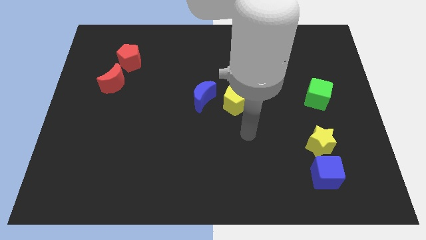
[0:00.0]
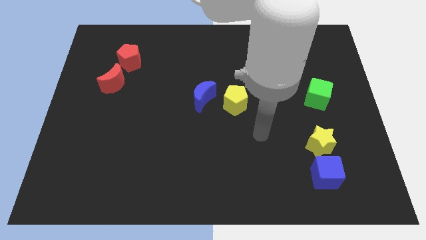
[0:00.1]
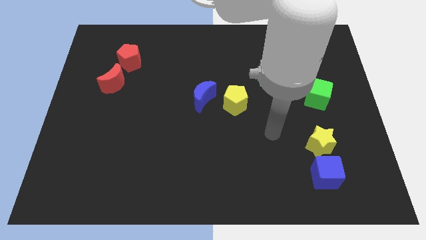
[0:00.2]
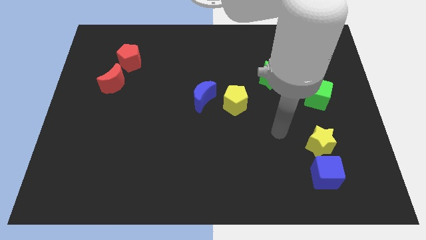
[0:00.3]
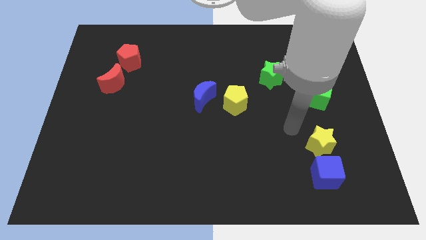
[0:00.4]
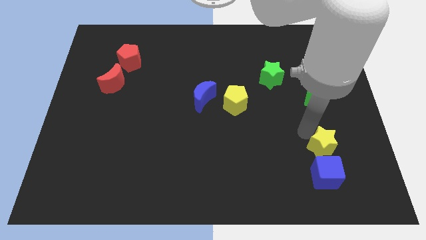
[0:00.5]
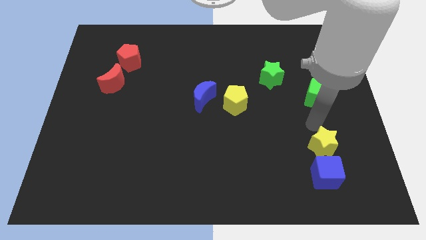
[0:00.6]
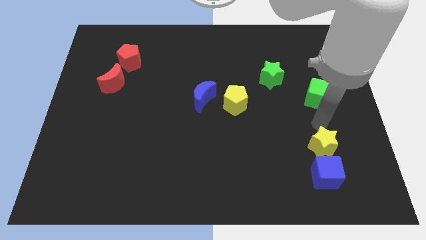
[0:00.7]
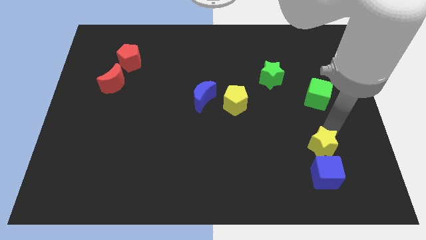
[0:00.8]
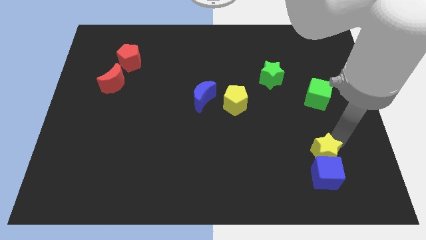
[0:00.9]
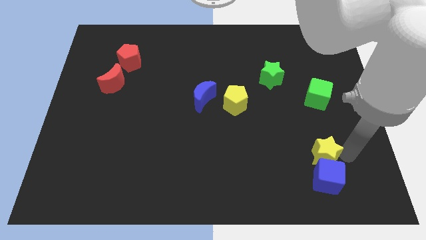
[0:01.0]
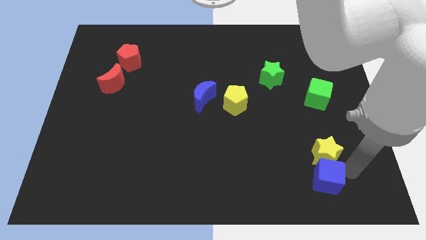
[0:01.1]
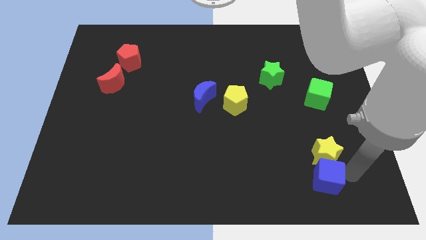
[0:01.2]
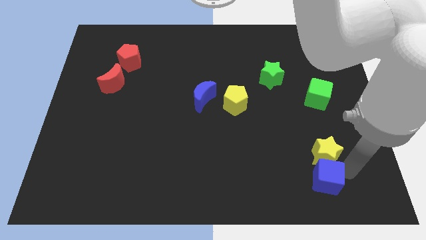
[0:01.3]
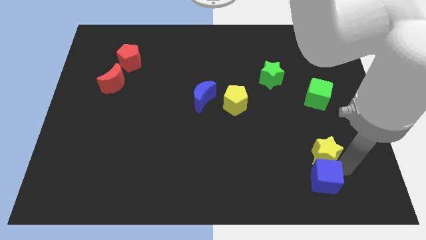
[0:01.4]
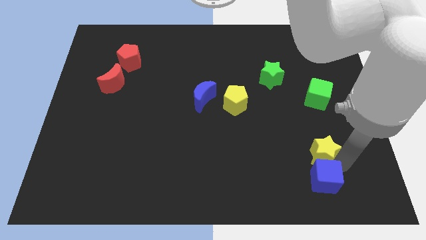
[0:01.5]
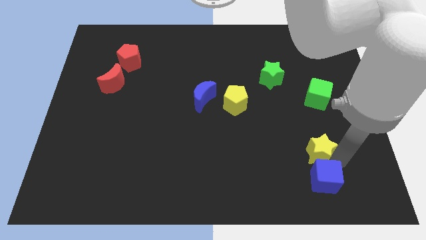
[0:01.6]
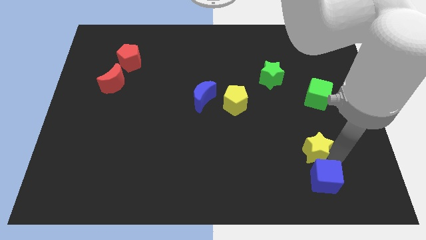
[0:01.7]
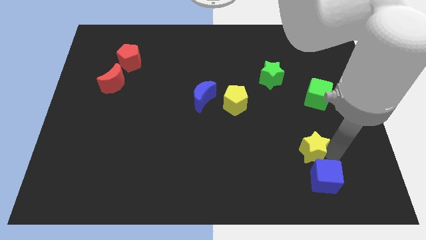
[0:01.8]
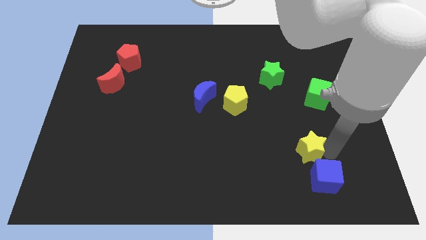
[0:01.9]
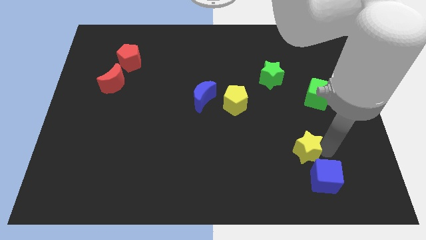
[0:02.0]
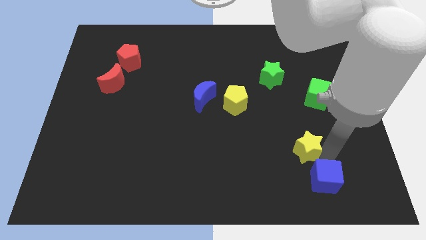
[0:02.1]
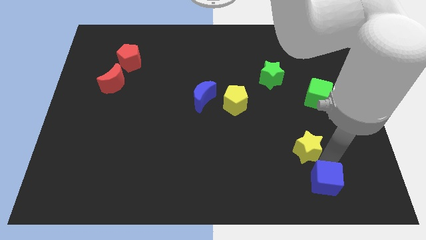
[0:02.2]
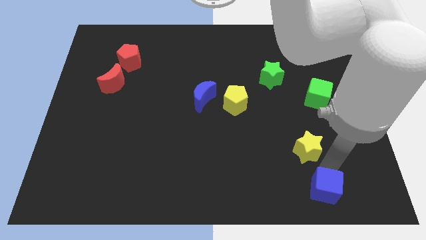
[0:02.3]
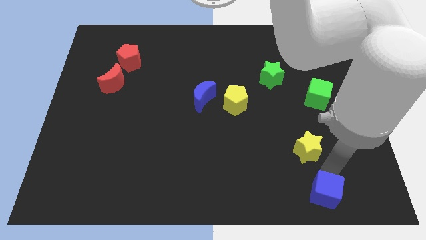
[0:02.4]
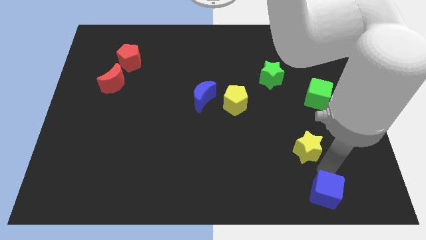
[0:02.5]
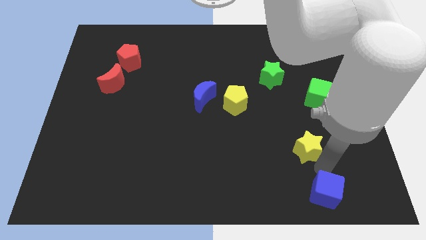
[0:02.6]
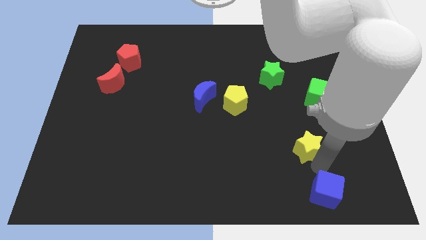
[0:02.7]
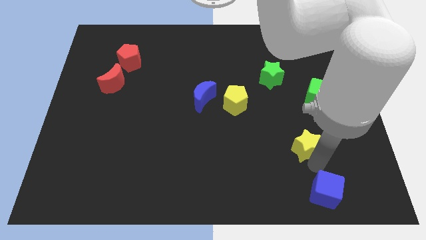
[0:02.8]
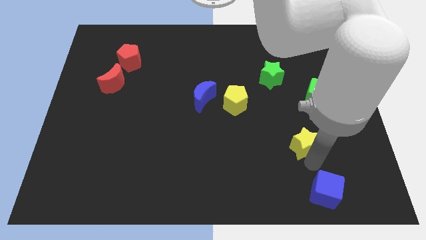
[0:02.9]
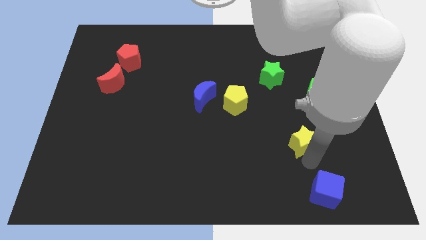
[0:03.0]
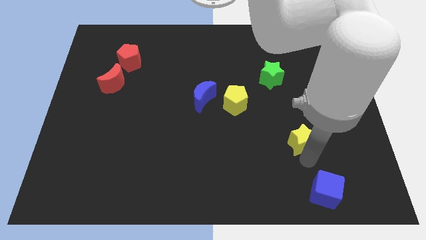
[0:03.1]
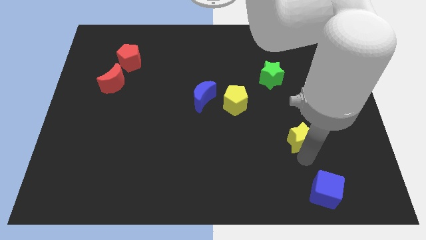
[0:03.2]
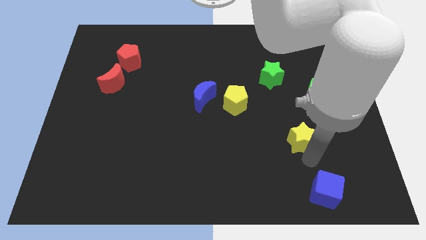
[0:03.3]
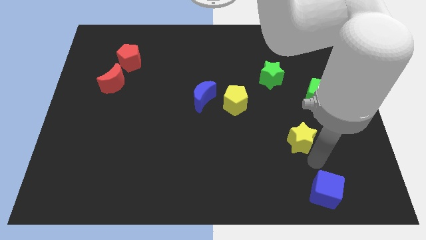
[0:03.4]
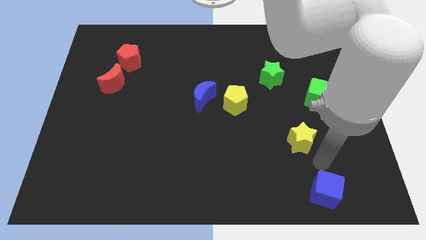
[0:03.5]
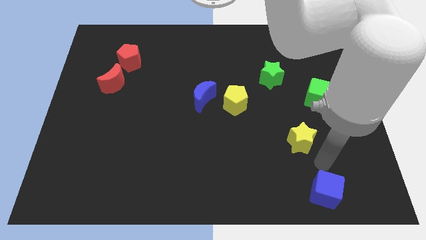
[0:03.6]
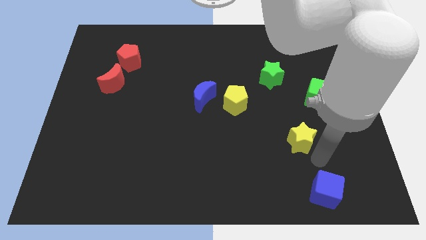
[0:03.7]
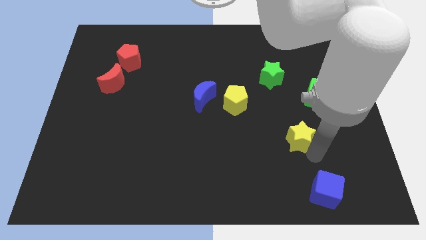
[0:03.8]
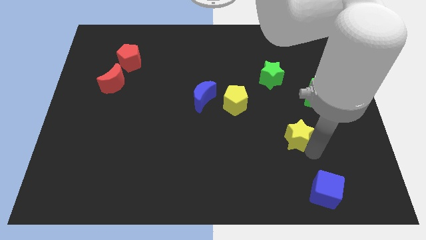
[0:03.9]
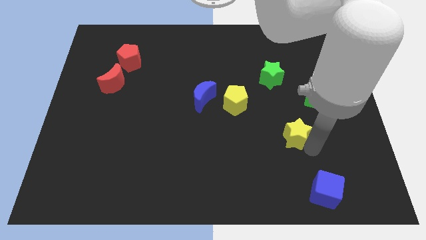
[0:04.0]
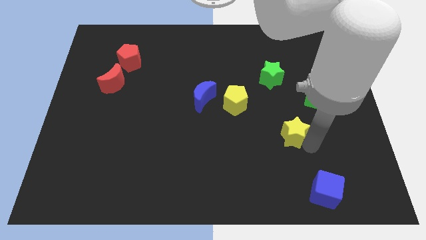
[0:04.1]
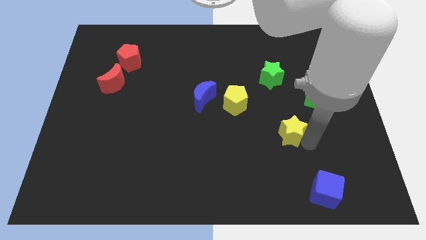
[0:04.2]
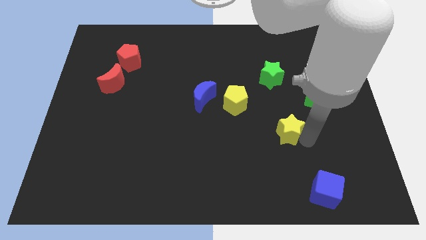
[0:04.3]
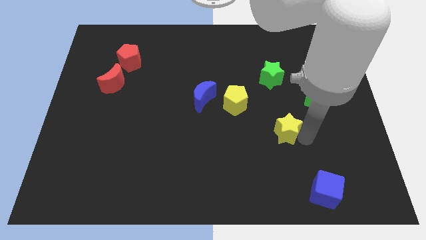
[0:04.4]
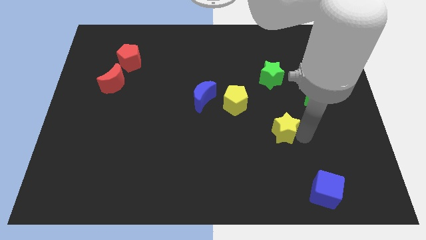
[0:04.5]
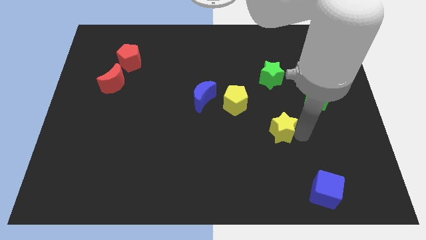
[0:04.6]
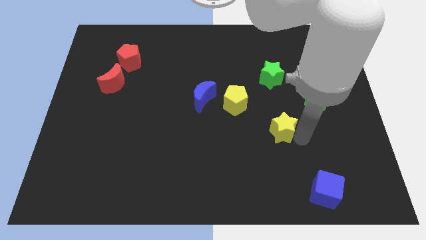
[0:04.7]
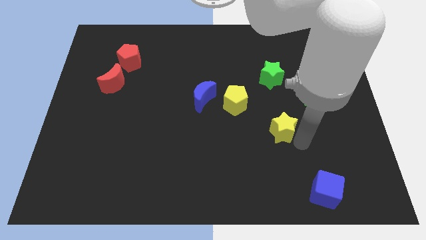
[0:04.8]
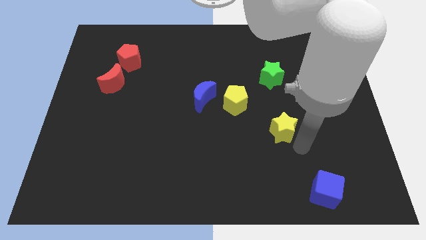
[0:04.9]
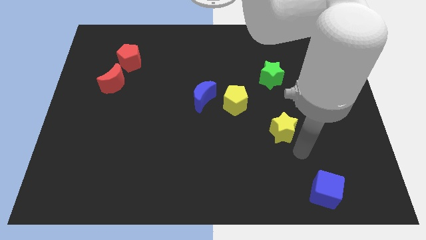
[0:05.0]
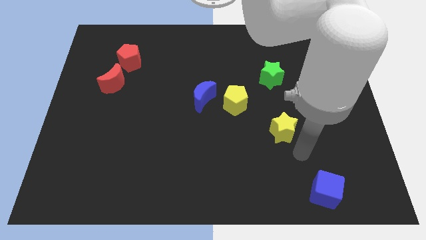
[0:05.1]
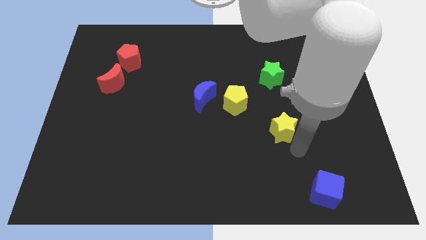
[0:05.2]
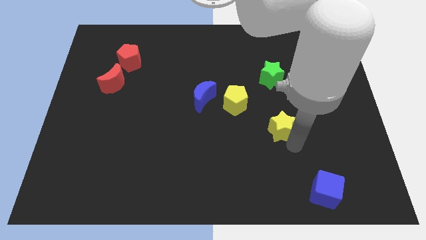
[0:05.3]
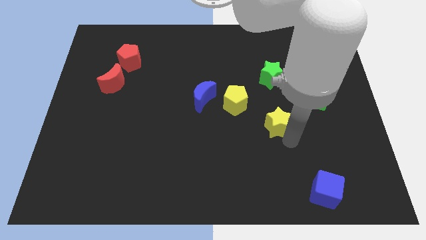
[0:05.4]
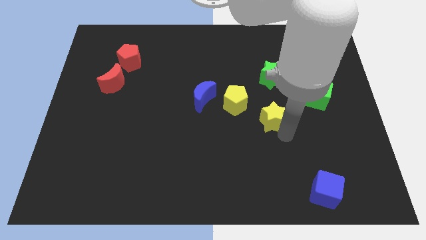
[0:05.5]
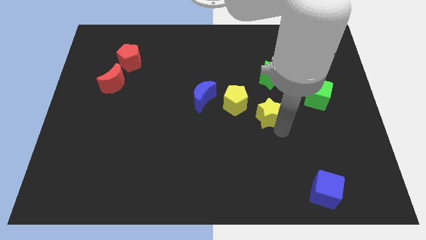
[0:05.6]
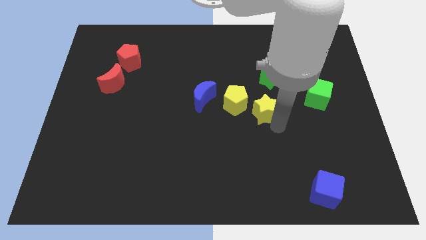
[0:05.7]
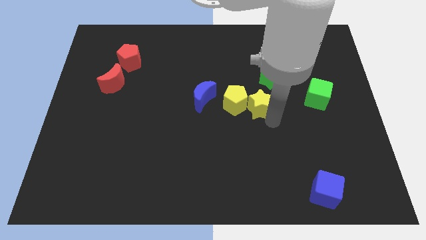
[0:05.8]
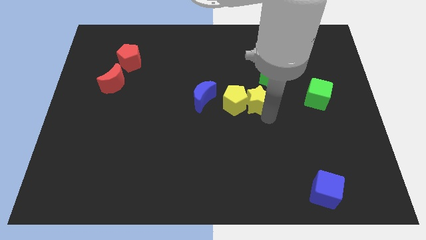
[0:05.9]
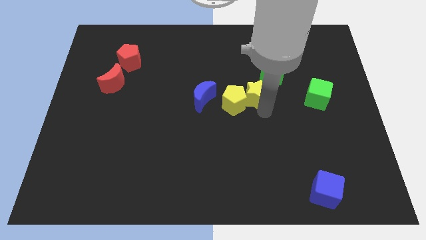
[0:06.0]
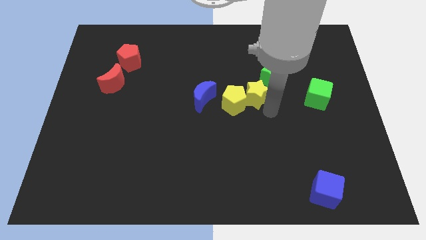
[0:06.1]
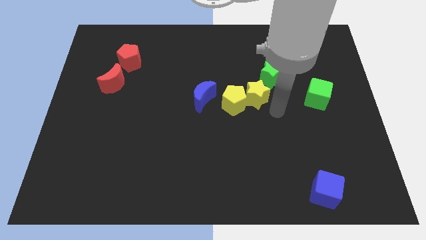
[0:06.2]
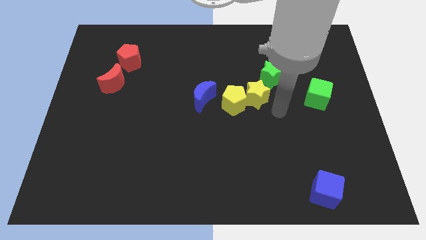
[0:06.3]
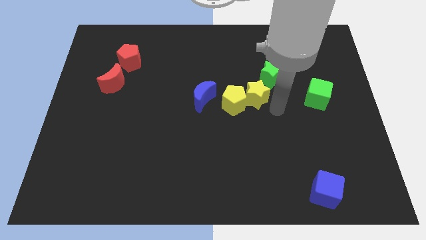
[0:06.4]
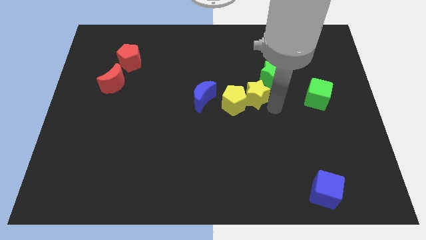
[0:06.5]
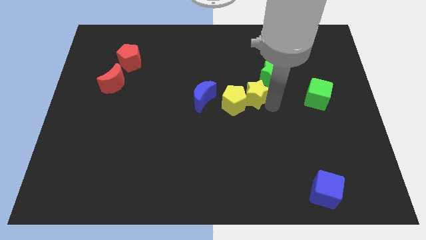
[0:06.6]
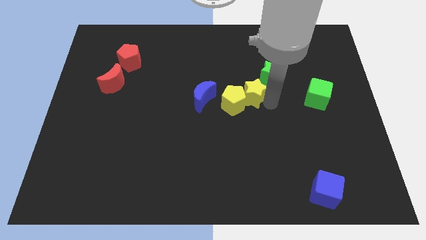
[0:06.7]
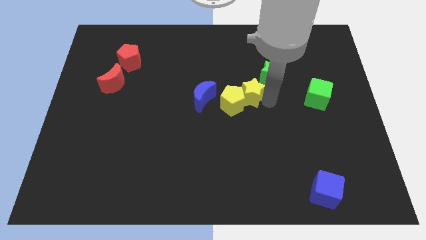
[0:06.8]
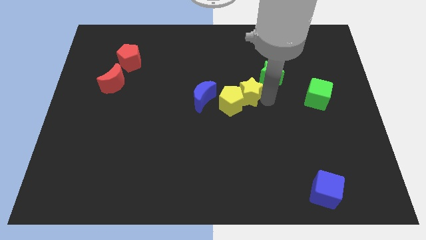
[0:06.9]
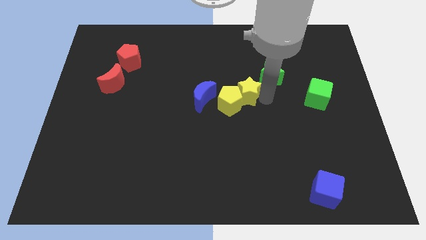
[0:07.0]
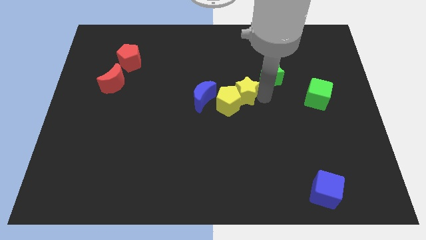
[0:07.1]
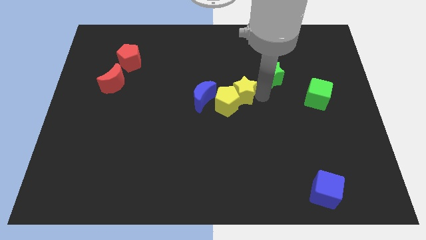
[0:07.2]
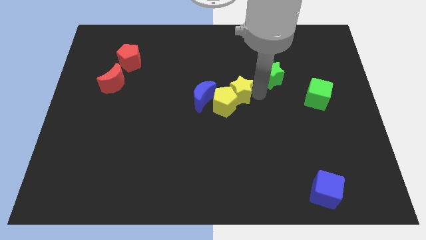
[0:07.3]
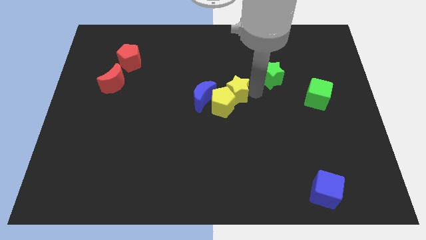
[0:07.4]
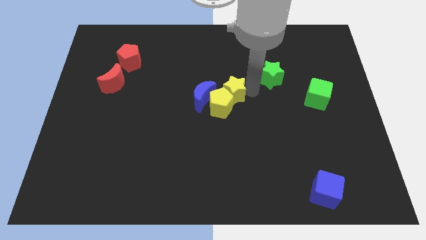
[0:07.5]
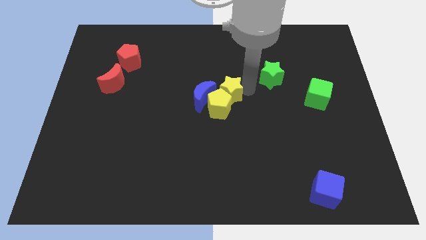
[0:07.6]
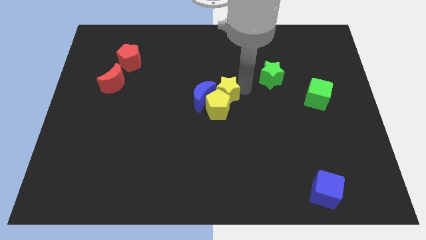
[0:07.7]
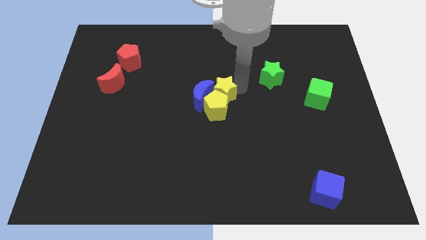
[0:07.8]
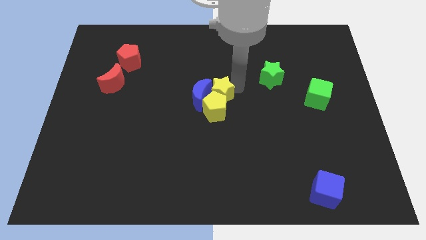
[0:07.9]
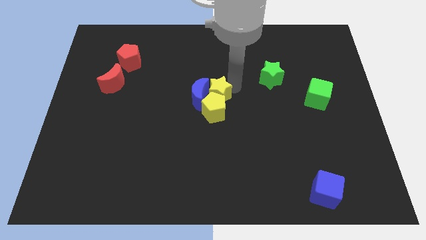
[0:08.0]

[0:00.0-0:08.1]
move the yellow star diagonally up and to the left of the yellow pentagon
